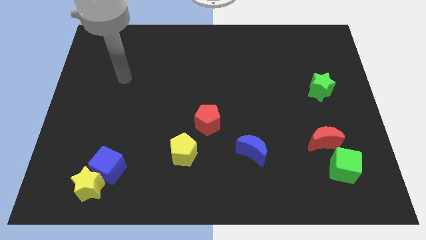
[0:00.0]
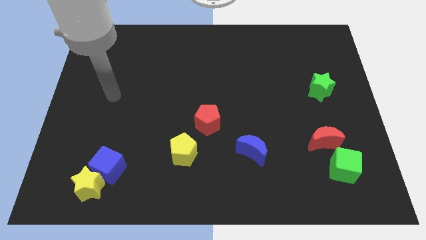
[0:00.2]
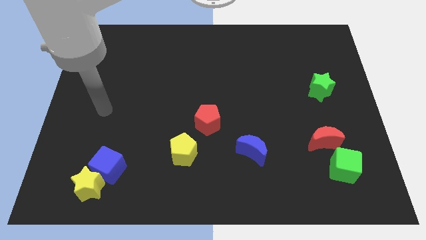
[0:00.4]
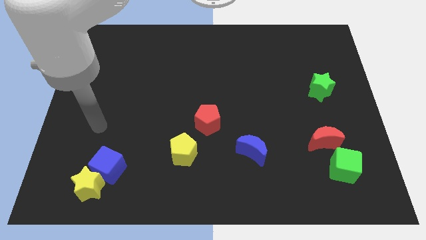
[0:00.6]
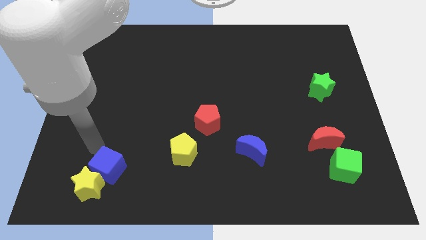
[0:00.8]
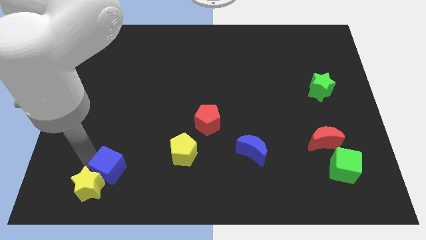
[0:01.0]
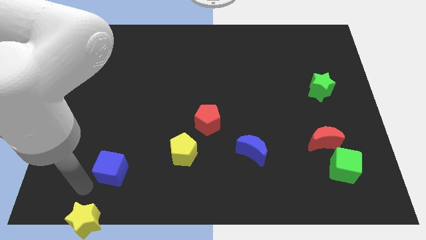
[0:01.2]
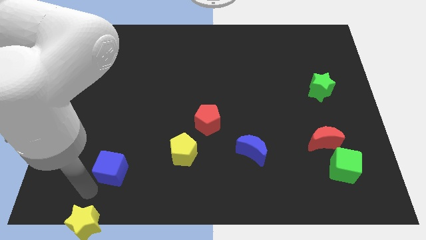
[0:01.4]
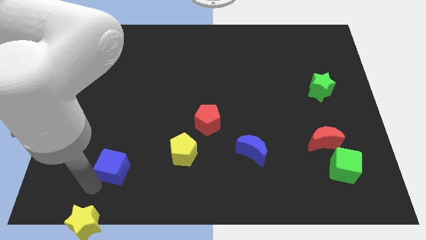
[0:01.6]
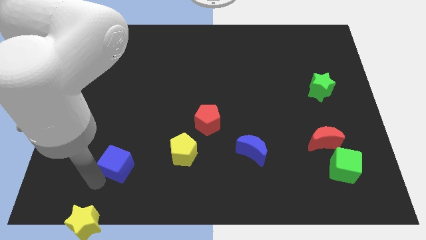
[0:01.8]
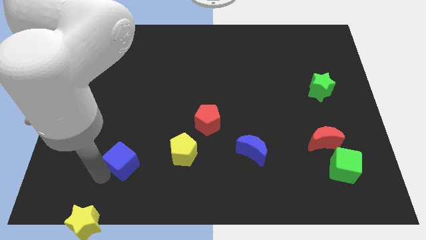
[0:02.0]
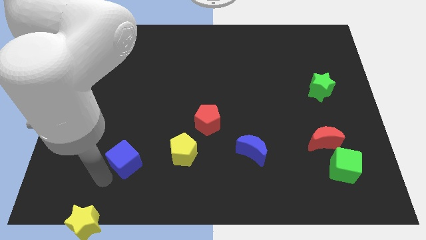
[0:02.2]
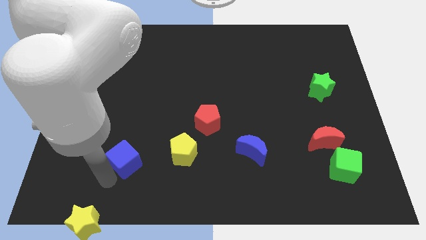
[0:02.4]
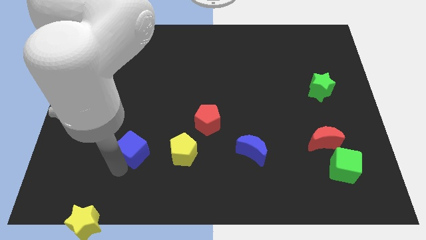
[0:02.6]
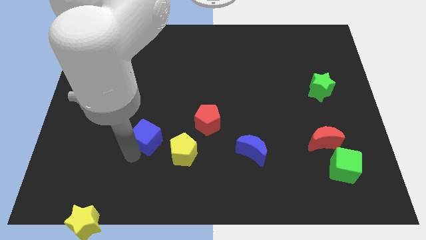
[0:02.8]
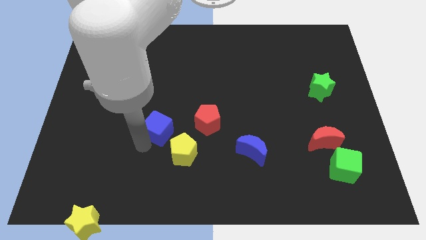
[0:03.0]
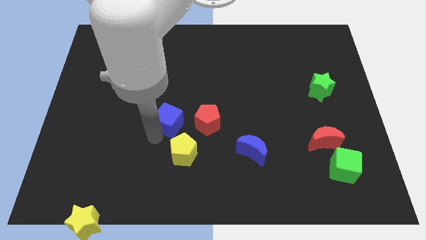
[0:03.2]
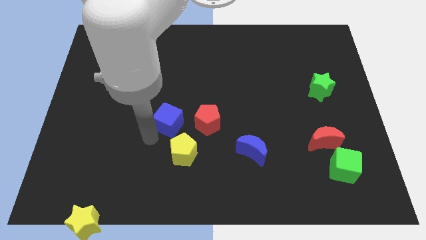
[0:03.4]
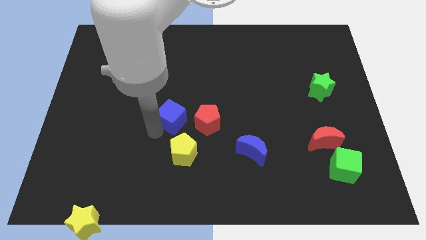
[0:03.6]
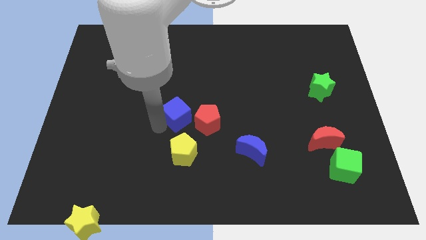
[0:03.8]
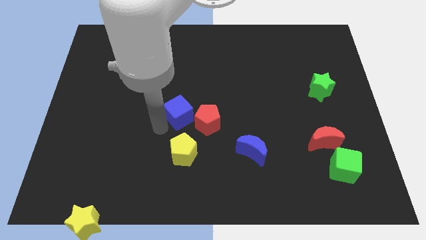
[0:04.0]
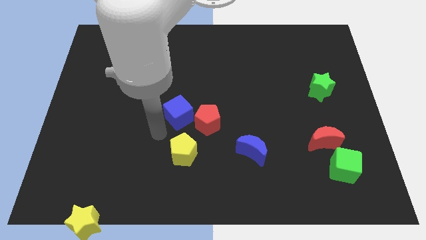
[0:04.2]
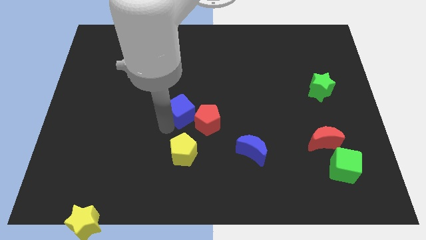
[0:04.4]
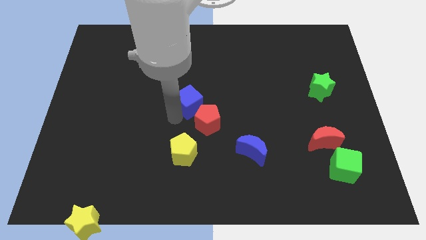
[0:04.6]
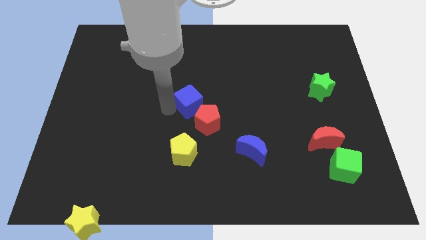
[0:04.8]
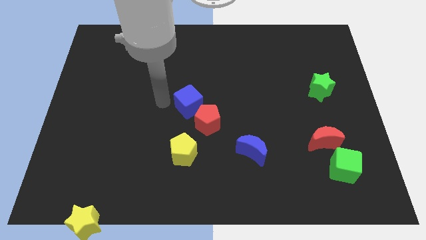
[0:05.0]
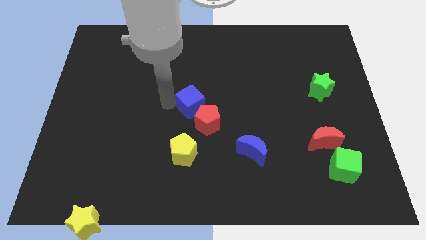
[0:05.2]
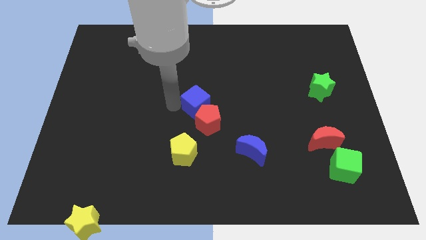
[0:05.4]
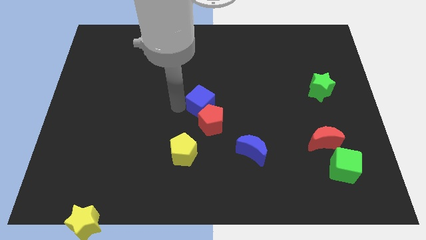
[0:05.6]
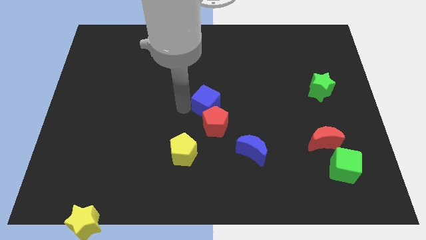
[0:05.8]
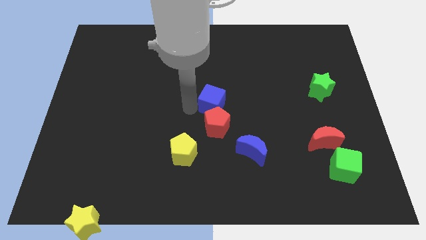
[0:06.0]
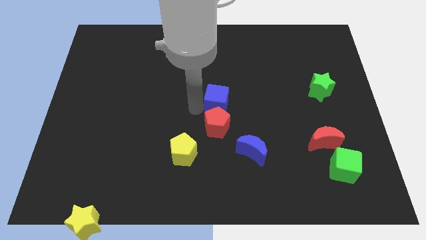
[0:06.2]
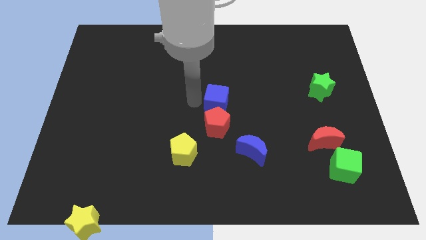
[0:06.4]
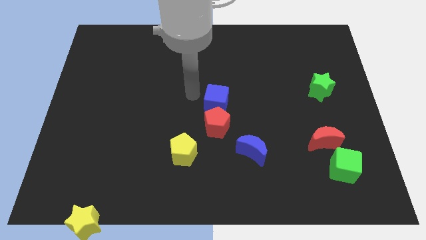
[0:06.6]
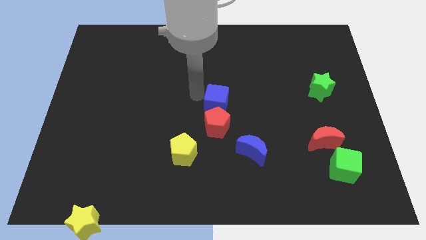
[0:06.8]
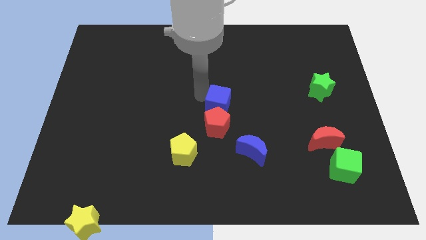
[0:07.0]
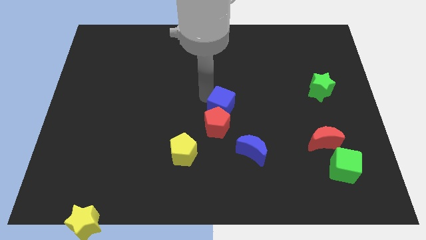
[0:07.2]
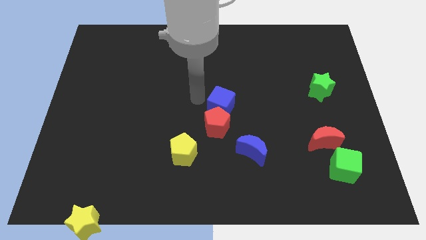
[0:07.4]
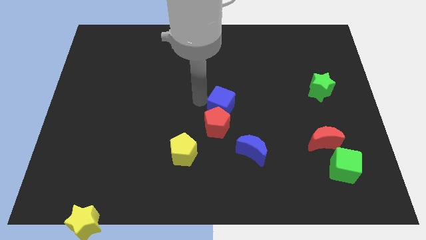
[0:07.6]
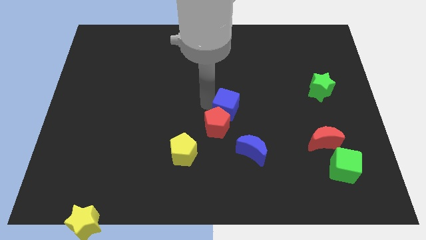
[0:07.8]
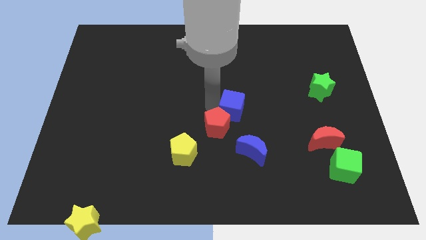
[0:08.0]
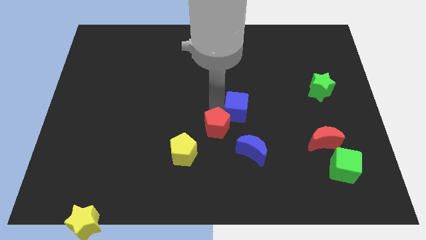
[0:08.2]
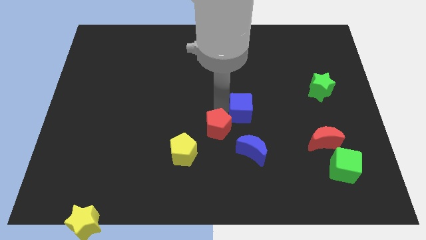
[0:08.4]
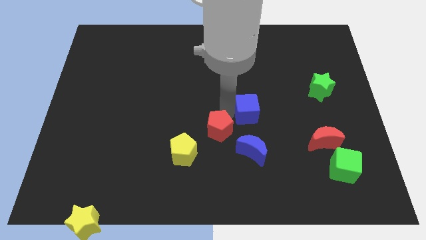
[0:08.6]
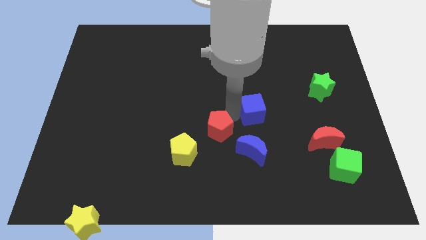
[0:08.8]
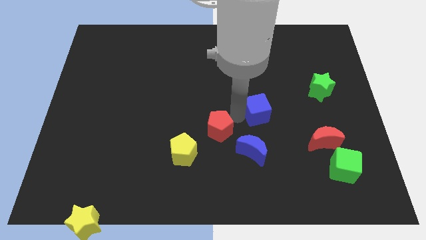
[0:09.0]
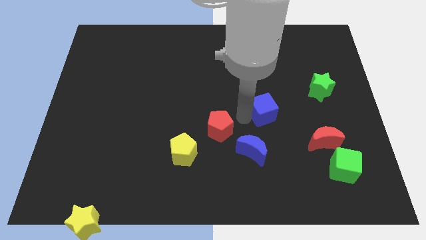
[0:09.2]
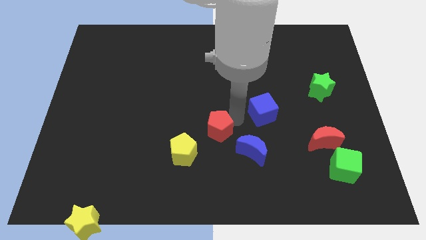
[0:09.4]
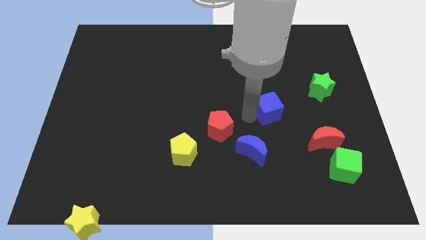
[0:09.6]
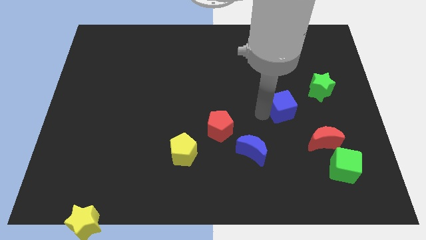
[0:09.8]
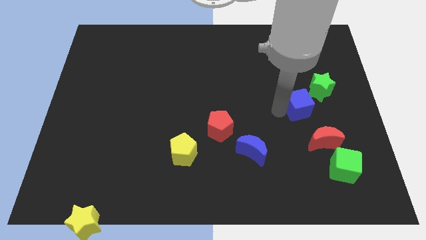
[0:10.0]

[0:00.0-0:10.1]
push the blue cube to the top of the red moon
